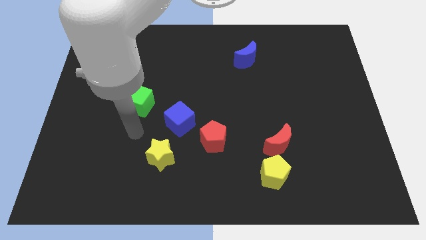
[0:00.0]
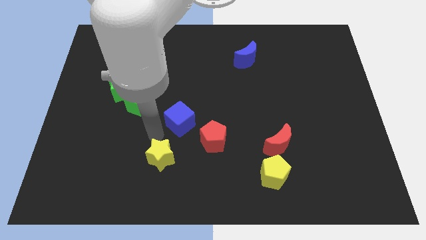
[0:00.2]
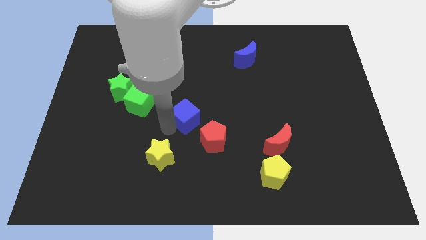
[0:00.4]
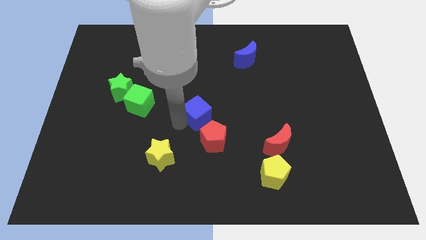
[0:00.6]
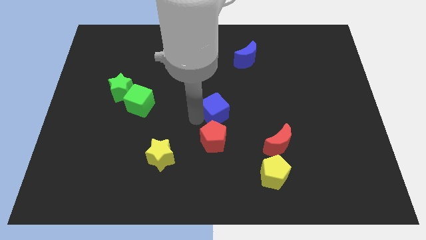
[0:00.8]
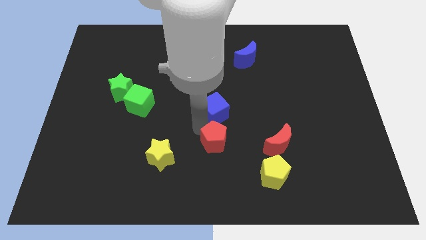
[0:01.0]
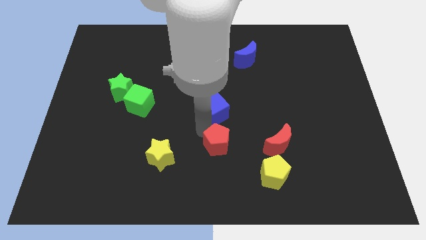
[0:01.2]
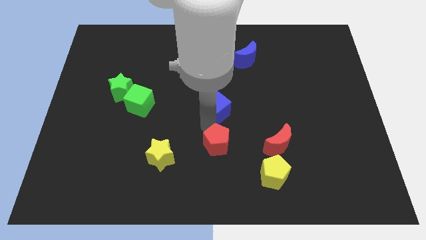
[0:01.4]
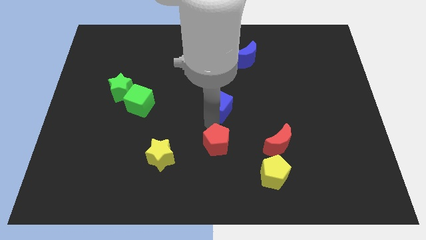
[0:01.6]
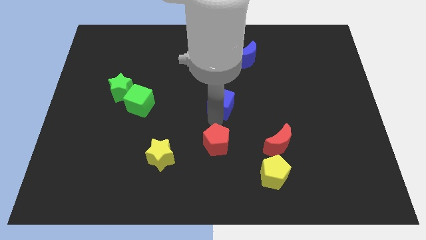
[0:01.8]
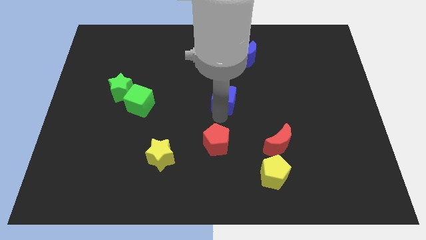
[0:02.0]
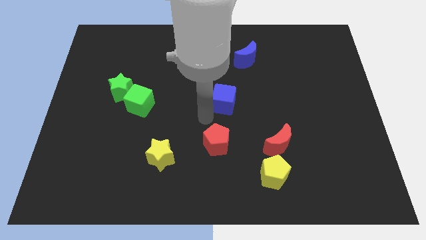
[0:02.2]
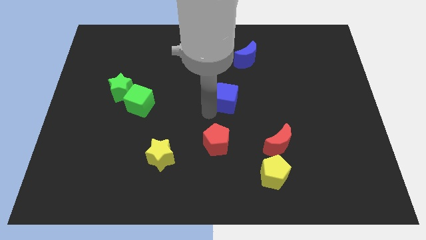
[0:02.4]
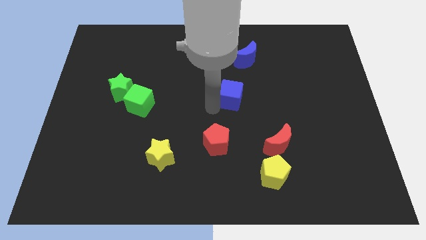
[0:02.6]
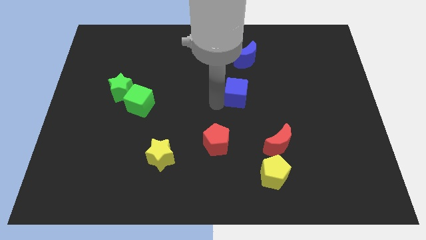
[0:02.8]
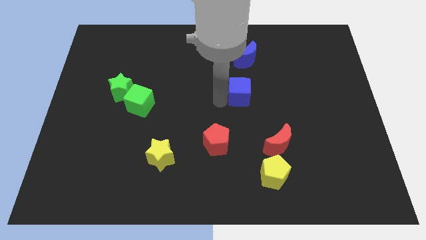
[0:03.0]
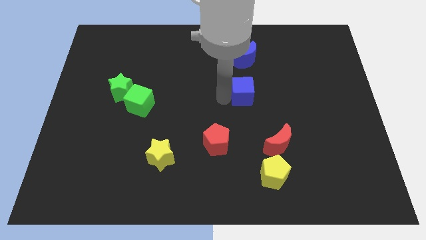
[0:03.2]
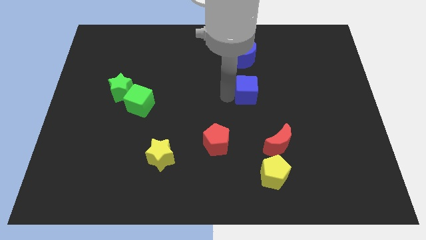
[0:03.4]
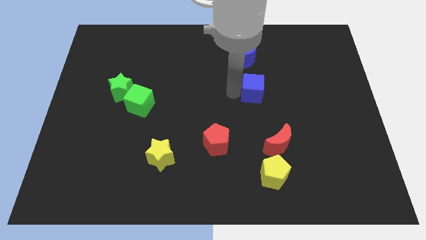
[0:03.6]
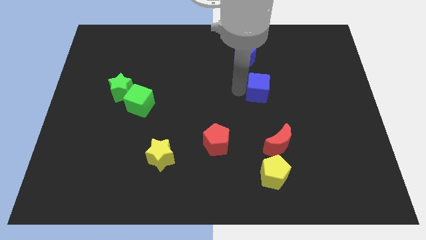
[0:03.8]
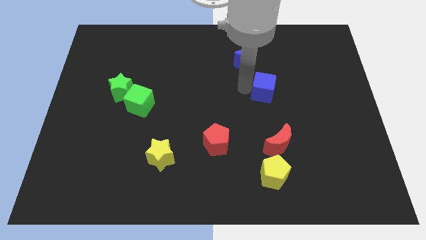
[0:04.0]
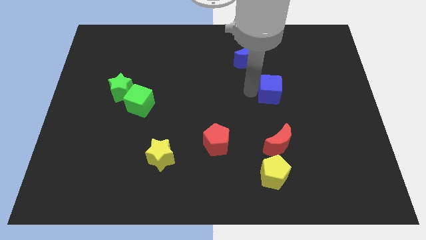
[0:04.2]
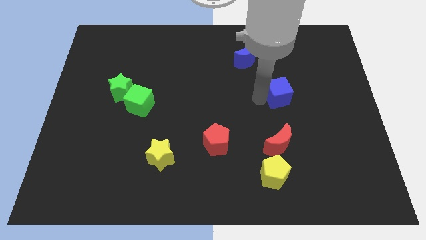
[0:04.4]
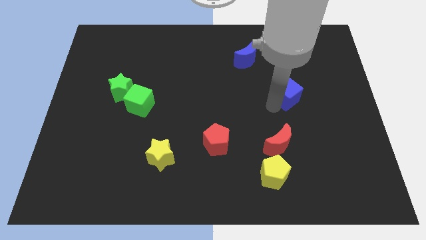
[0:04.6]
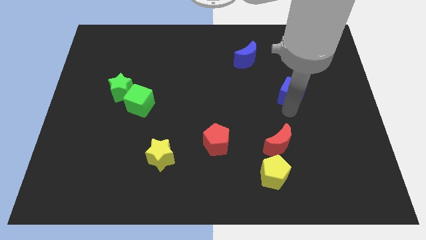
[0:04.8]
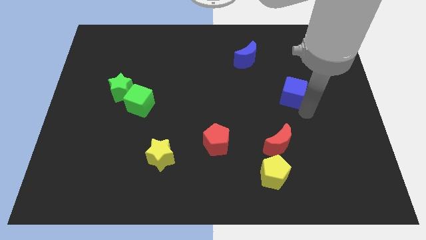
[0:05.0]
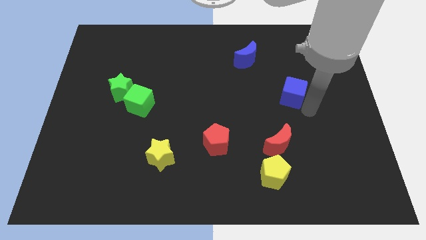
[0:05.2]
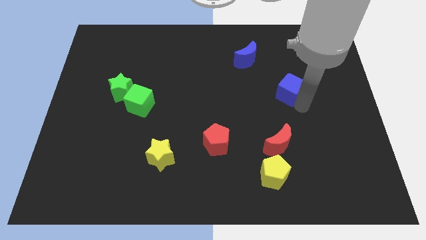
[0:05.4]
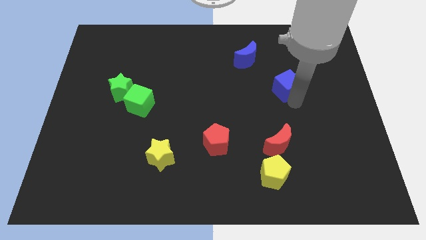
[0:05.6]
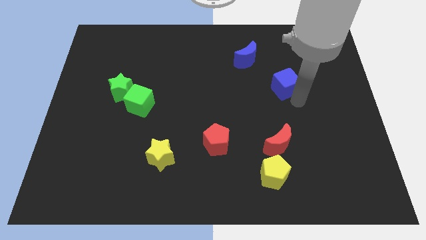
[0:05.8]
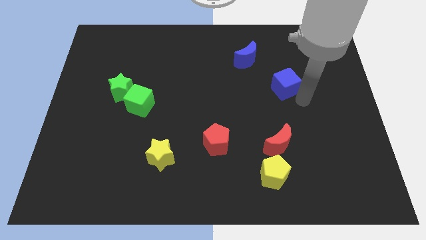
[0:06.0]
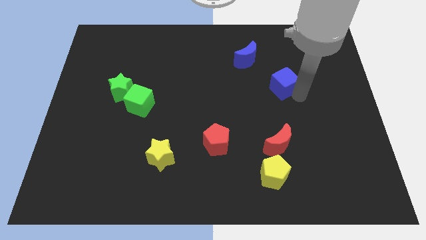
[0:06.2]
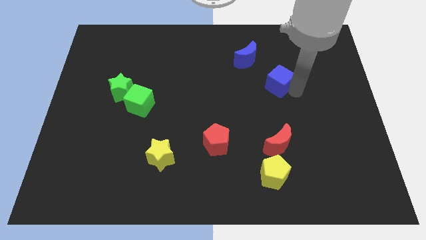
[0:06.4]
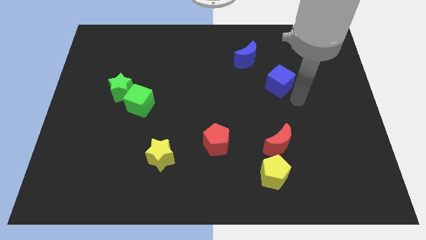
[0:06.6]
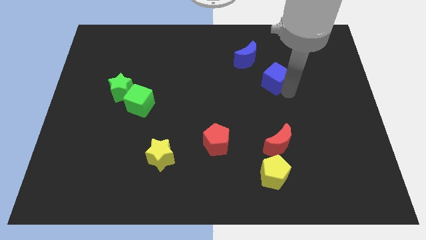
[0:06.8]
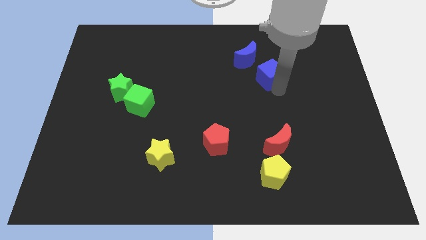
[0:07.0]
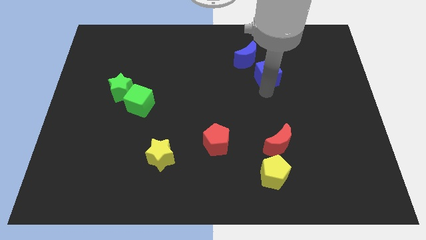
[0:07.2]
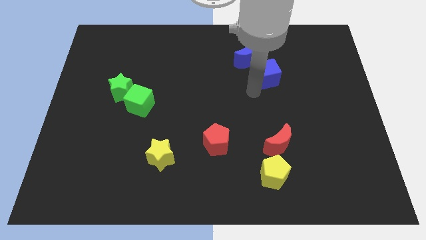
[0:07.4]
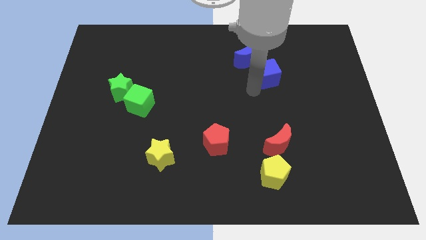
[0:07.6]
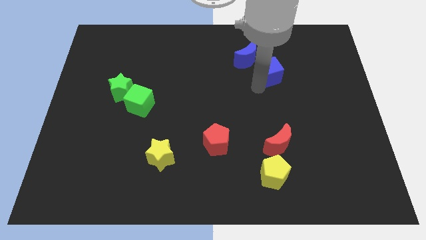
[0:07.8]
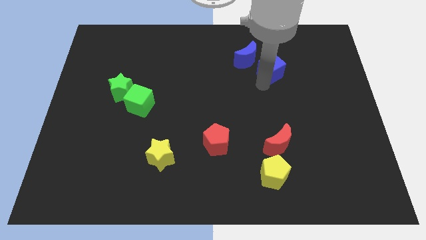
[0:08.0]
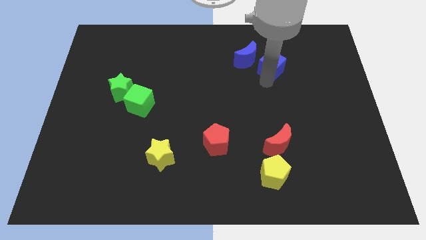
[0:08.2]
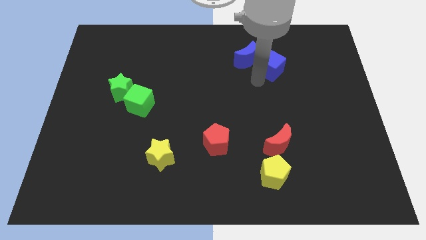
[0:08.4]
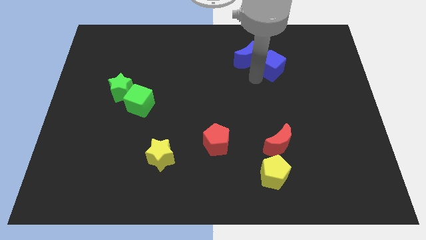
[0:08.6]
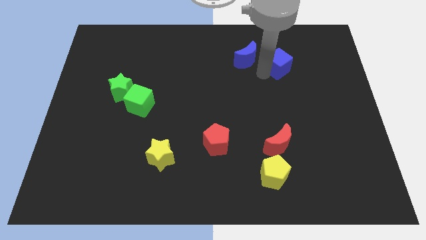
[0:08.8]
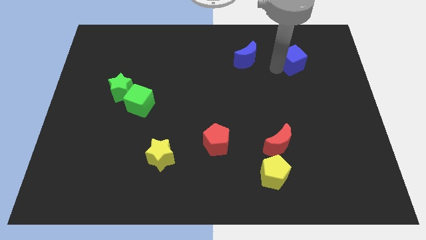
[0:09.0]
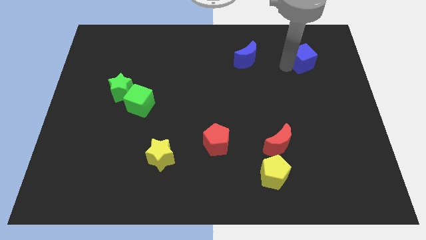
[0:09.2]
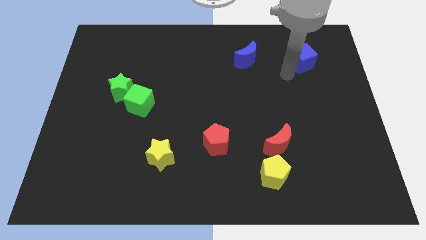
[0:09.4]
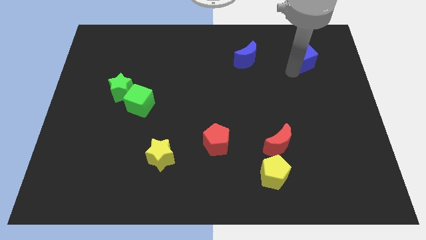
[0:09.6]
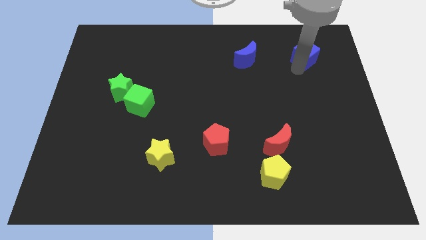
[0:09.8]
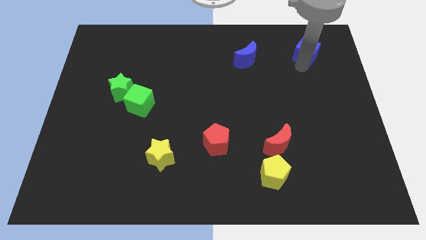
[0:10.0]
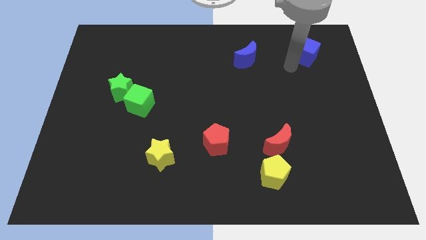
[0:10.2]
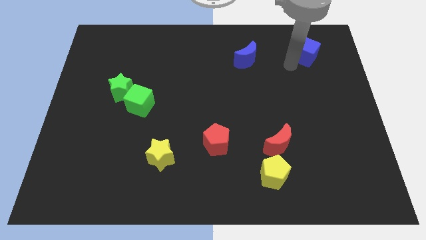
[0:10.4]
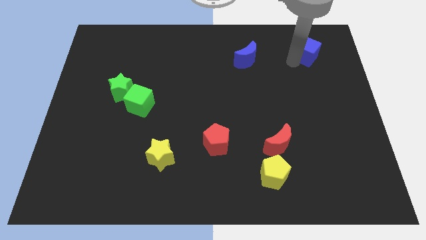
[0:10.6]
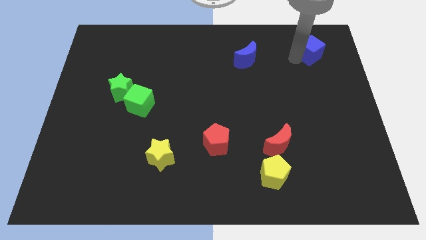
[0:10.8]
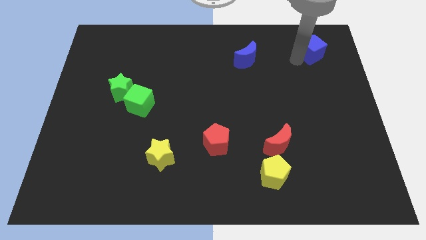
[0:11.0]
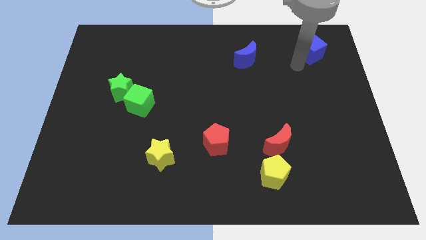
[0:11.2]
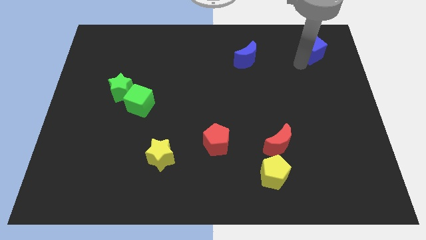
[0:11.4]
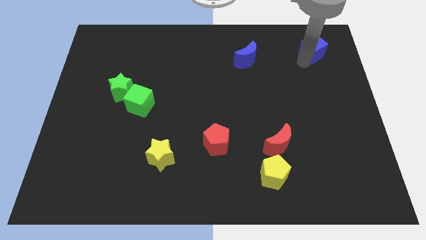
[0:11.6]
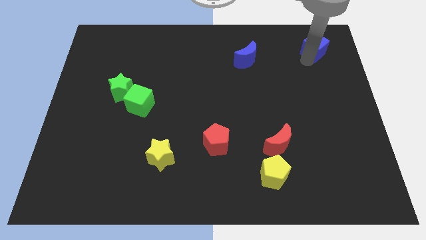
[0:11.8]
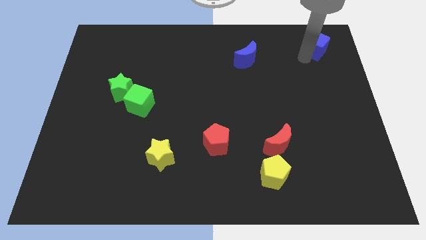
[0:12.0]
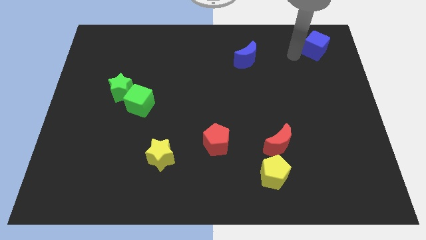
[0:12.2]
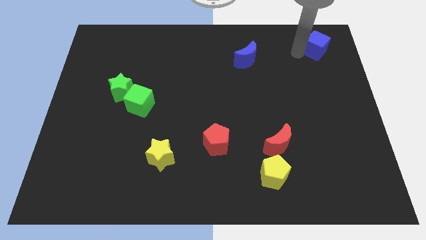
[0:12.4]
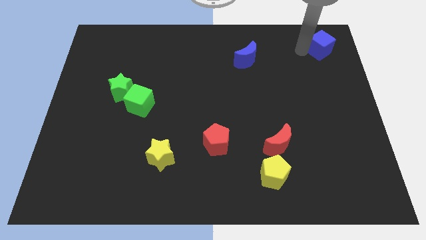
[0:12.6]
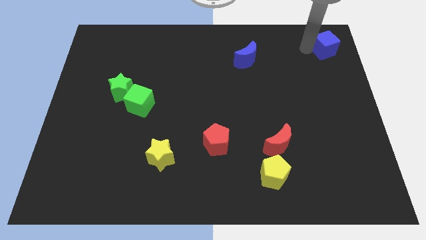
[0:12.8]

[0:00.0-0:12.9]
push the blue cube to the top right of the board
